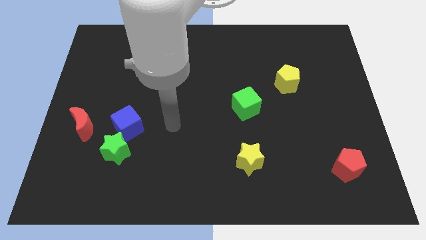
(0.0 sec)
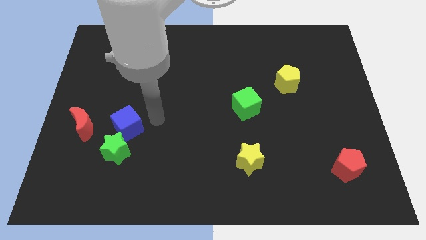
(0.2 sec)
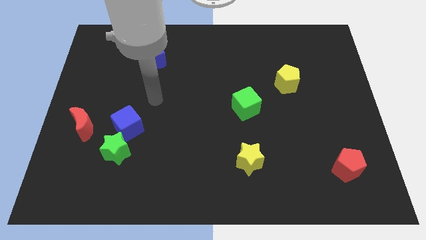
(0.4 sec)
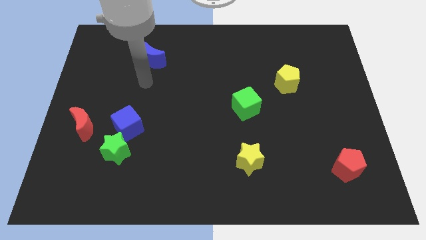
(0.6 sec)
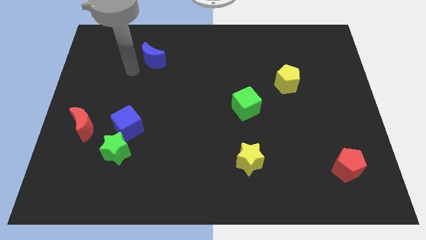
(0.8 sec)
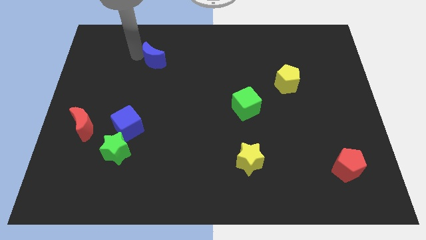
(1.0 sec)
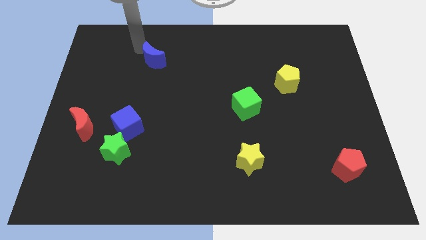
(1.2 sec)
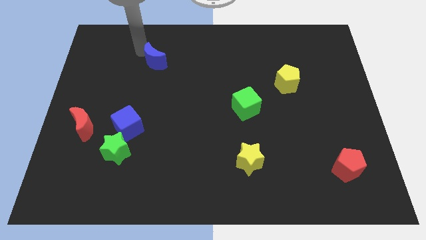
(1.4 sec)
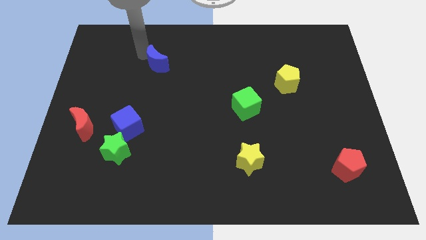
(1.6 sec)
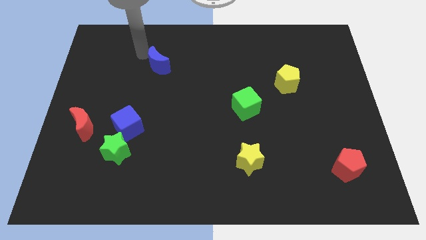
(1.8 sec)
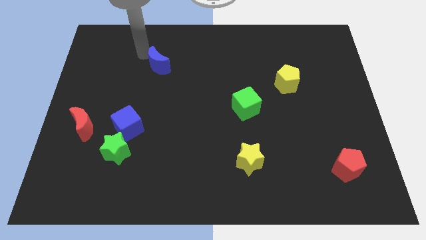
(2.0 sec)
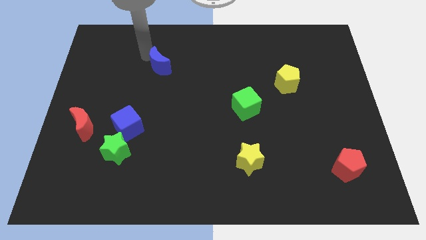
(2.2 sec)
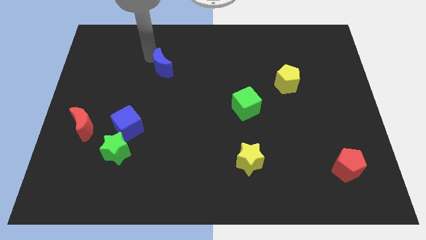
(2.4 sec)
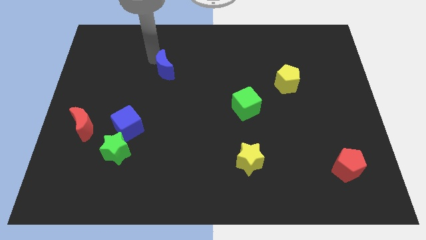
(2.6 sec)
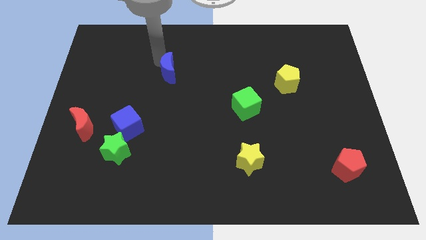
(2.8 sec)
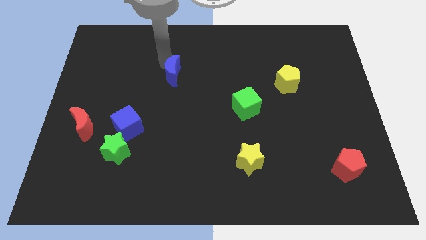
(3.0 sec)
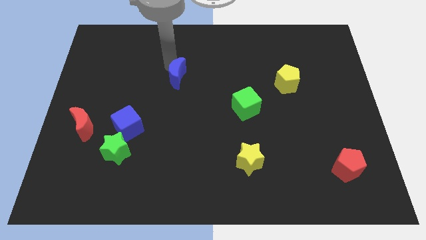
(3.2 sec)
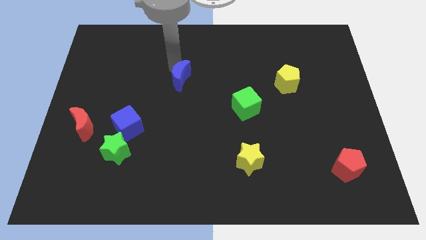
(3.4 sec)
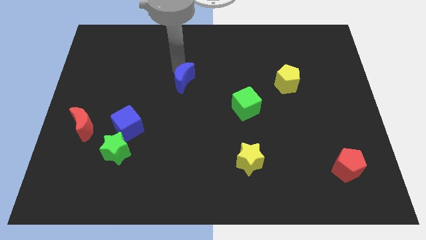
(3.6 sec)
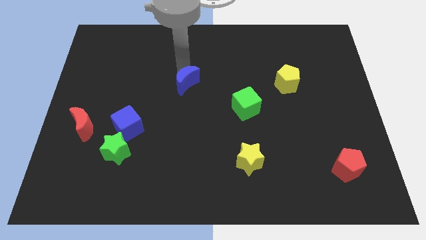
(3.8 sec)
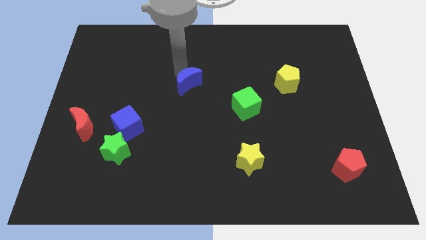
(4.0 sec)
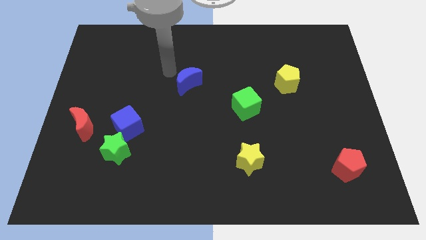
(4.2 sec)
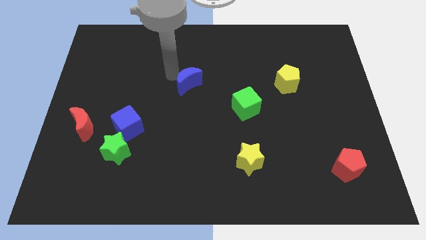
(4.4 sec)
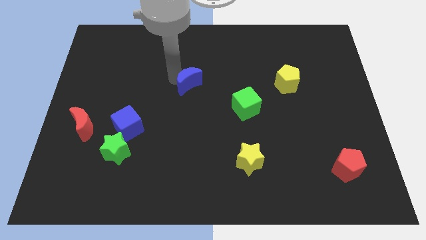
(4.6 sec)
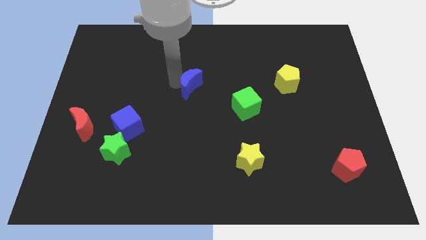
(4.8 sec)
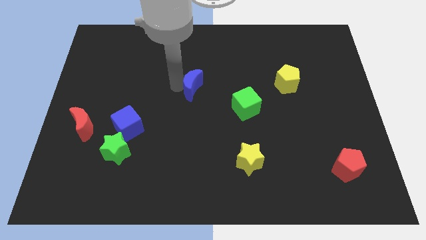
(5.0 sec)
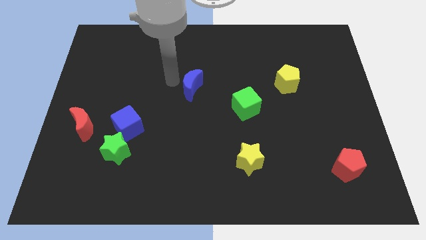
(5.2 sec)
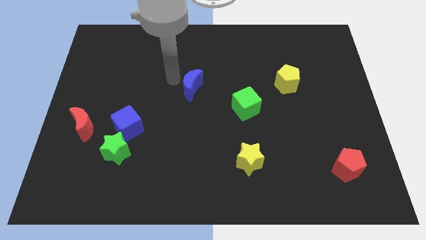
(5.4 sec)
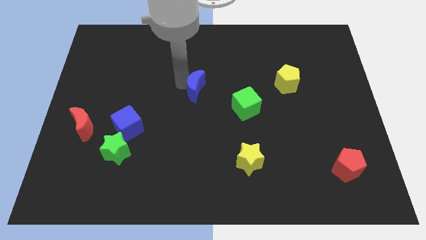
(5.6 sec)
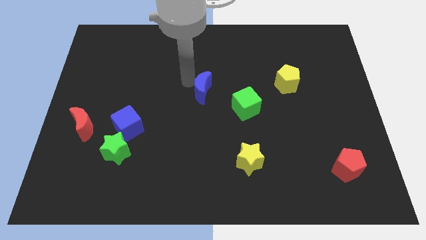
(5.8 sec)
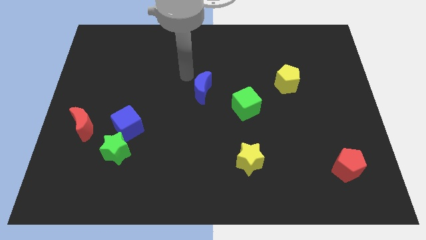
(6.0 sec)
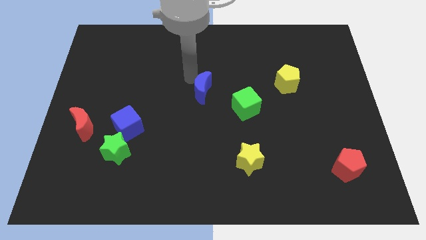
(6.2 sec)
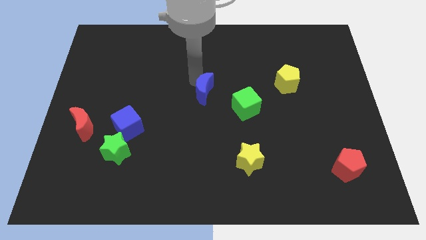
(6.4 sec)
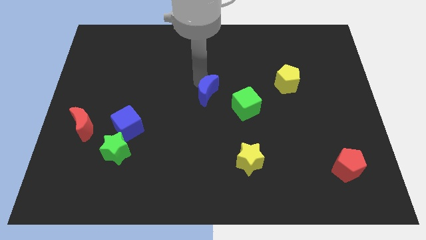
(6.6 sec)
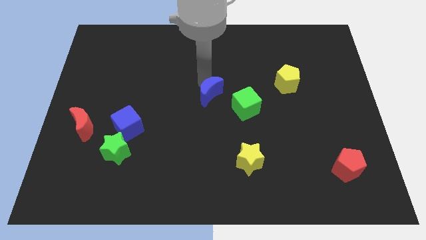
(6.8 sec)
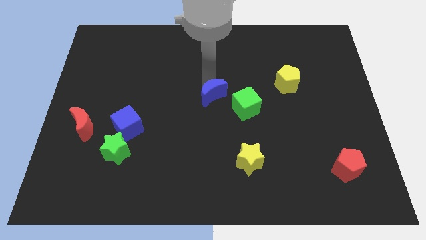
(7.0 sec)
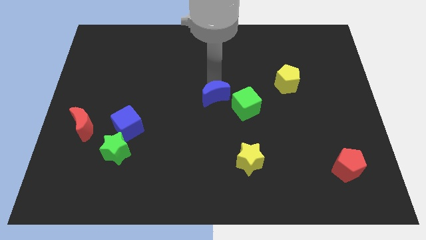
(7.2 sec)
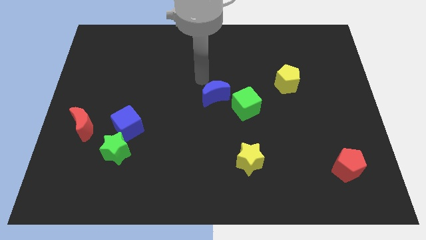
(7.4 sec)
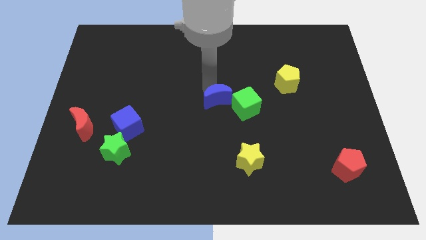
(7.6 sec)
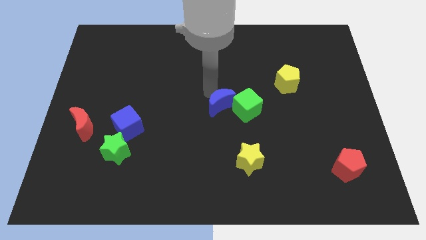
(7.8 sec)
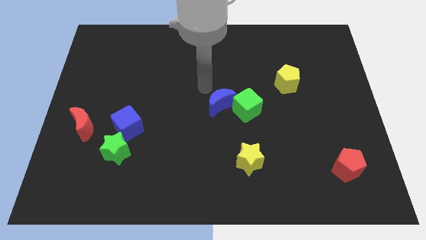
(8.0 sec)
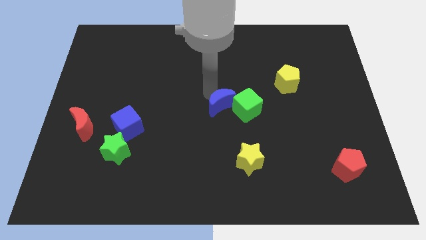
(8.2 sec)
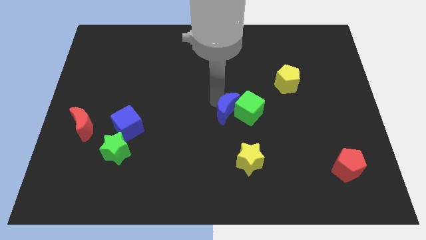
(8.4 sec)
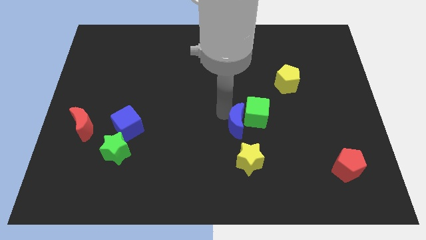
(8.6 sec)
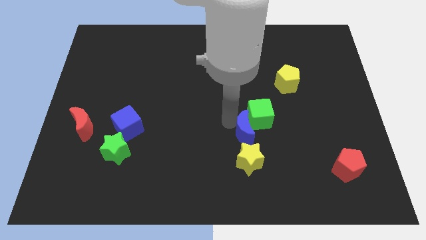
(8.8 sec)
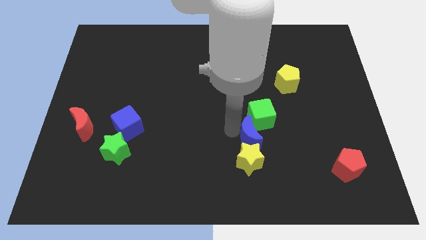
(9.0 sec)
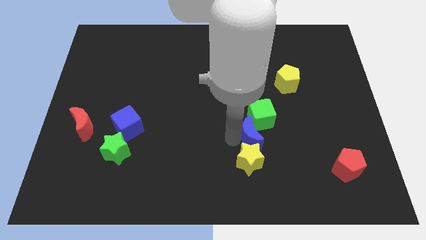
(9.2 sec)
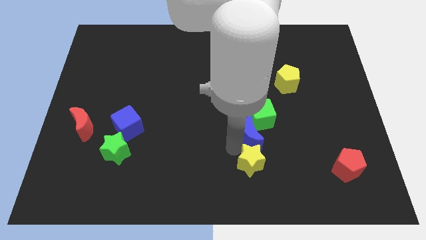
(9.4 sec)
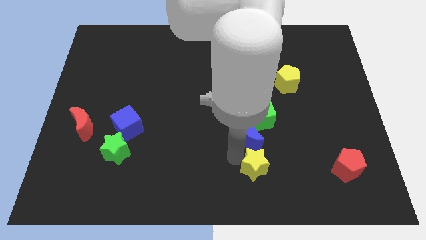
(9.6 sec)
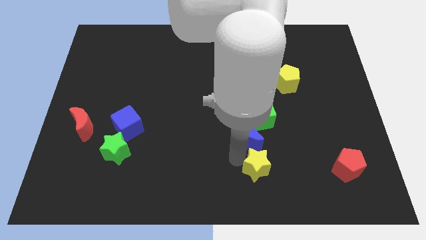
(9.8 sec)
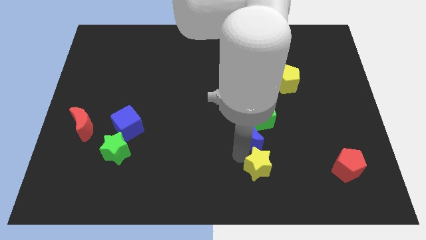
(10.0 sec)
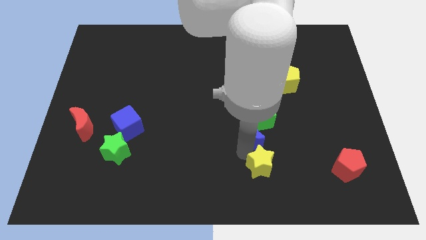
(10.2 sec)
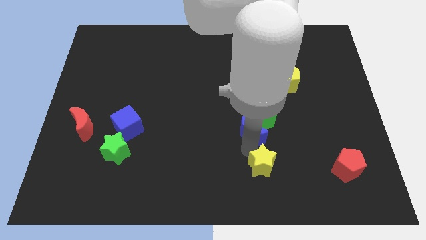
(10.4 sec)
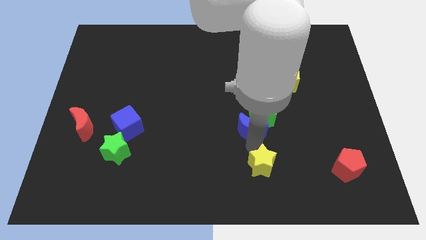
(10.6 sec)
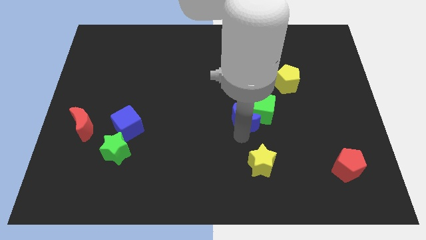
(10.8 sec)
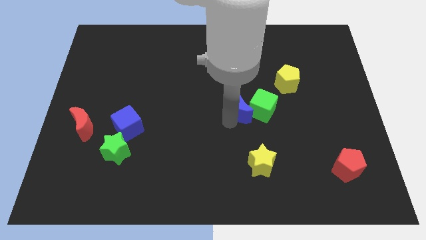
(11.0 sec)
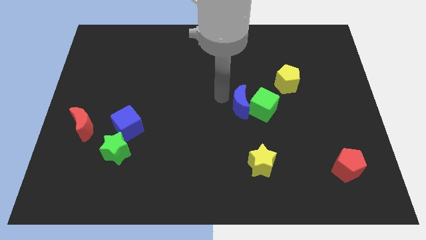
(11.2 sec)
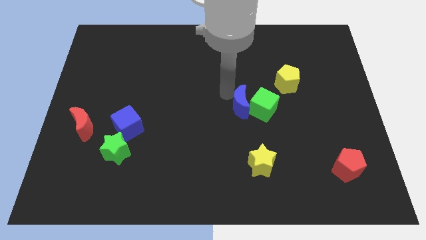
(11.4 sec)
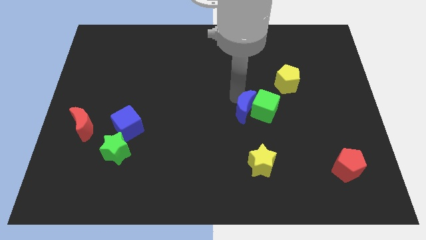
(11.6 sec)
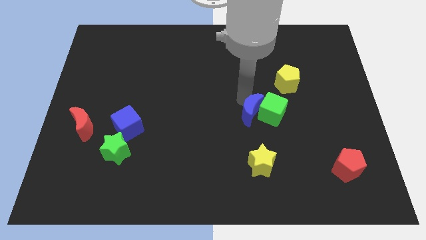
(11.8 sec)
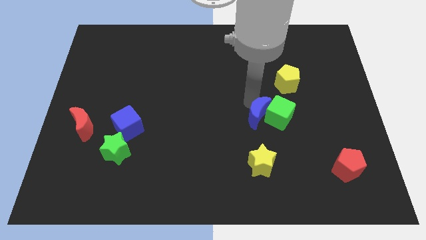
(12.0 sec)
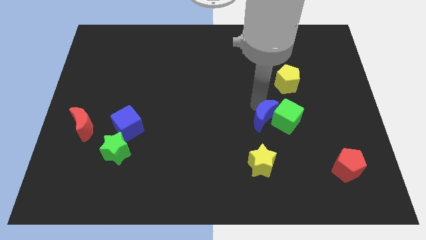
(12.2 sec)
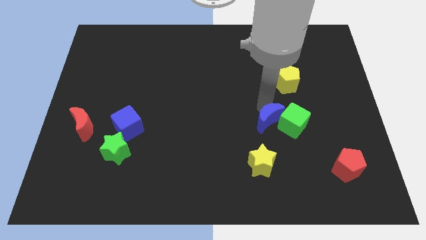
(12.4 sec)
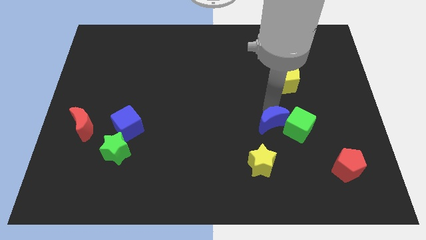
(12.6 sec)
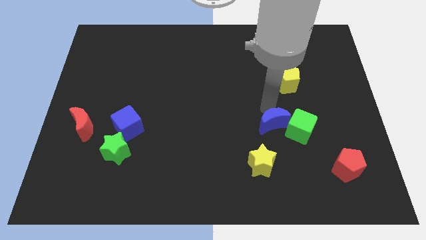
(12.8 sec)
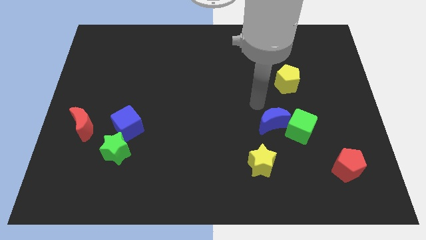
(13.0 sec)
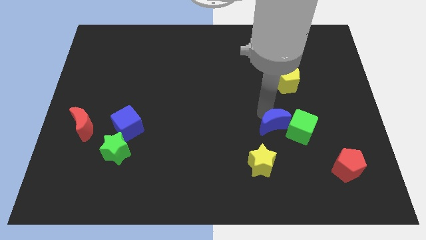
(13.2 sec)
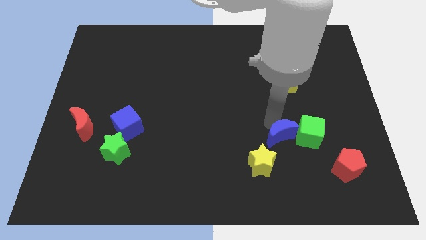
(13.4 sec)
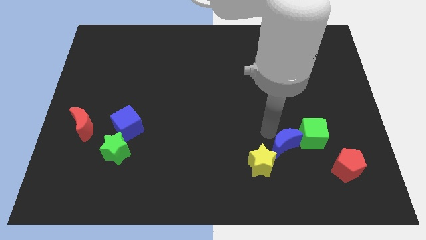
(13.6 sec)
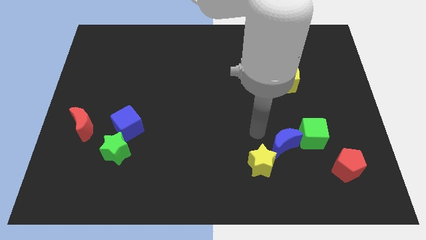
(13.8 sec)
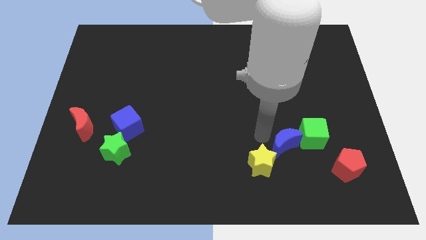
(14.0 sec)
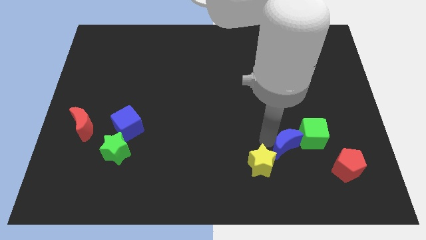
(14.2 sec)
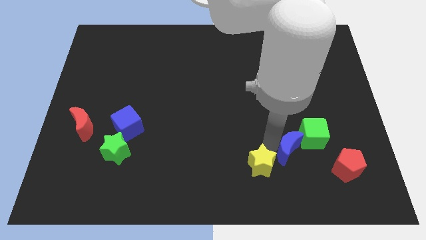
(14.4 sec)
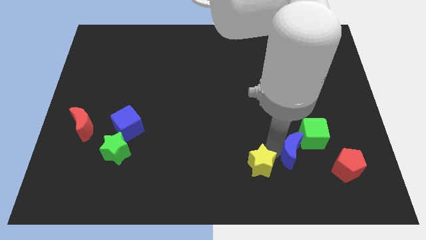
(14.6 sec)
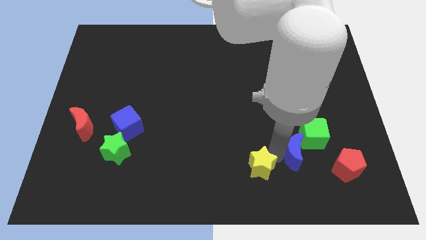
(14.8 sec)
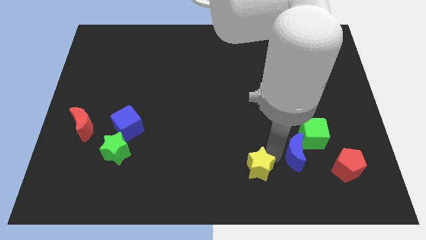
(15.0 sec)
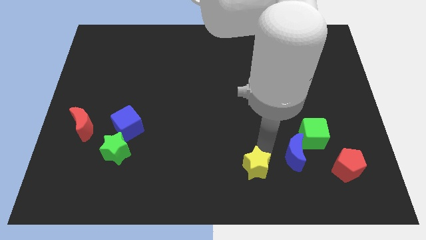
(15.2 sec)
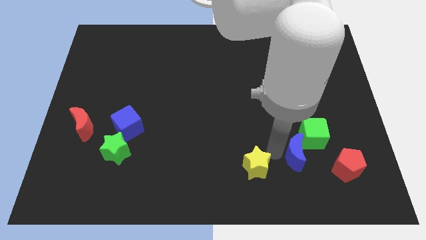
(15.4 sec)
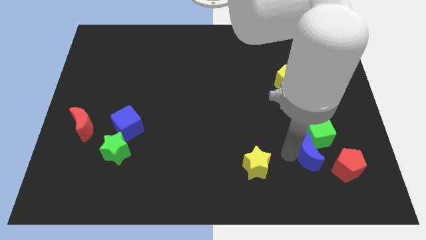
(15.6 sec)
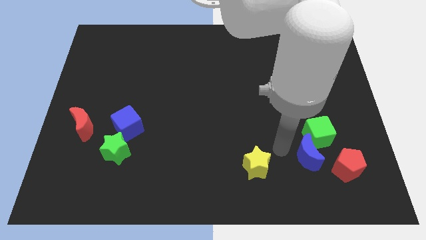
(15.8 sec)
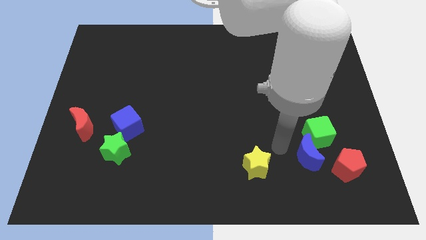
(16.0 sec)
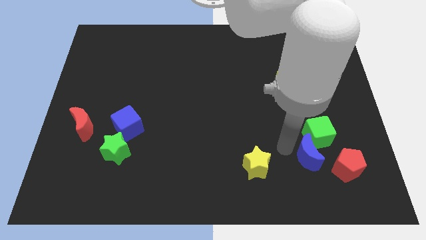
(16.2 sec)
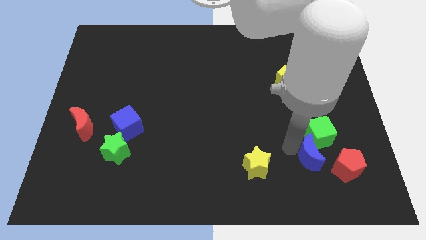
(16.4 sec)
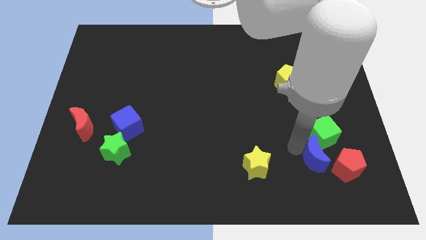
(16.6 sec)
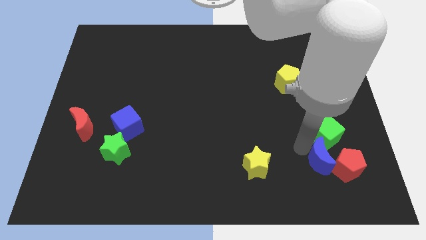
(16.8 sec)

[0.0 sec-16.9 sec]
move the blue moon next to the red pentagon
